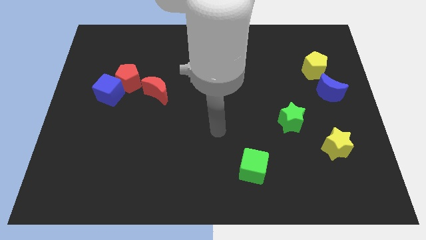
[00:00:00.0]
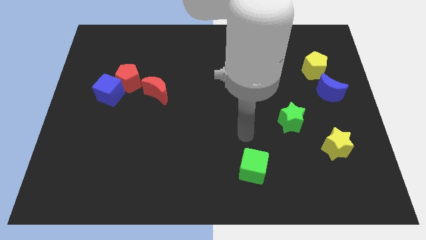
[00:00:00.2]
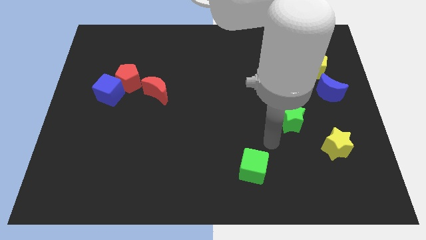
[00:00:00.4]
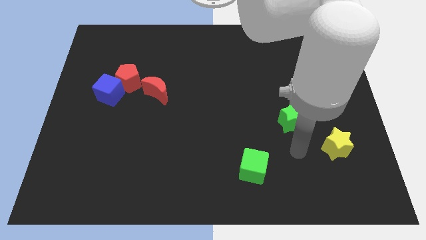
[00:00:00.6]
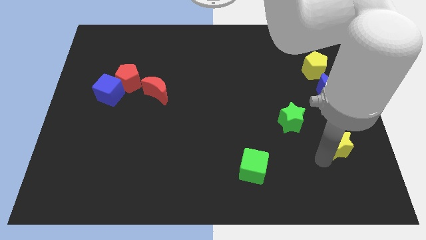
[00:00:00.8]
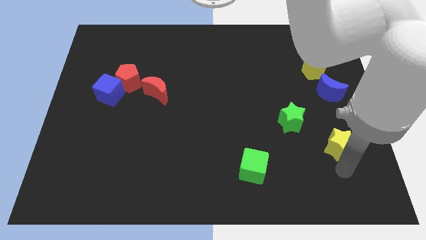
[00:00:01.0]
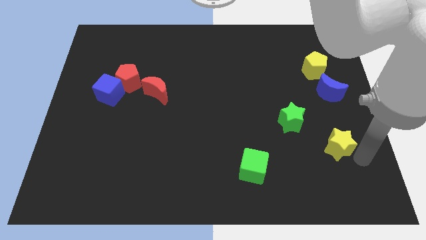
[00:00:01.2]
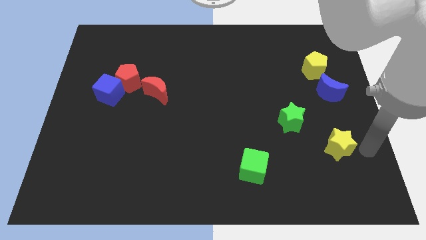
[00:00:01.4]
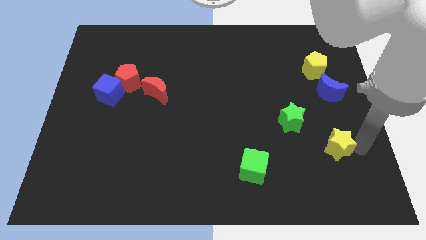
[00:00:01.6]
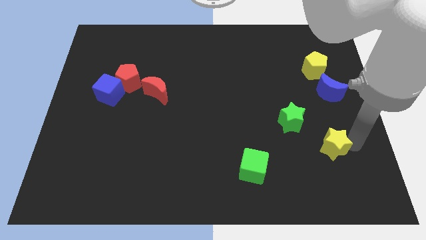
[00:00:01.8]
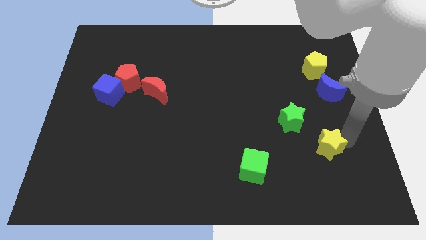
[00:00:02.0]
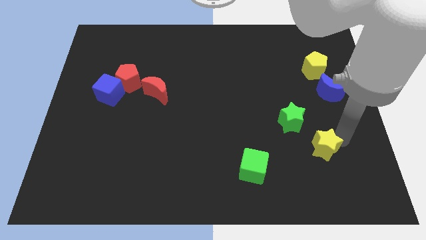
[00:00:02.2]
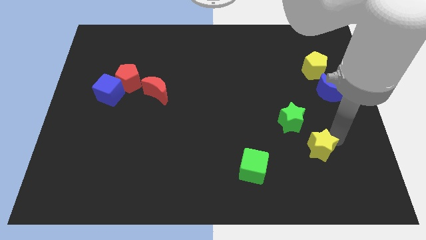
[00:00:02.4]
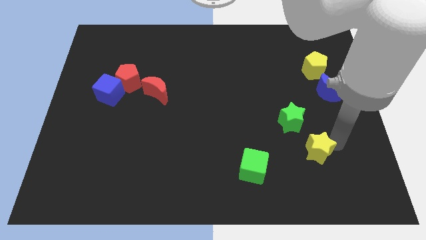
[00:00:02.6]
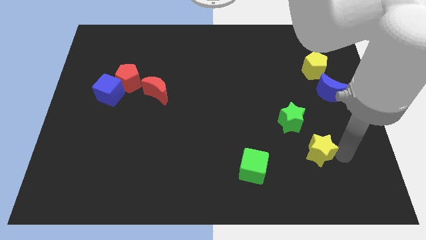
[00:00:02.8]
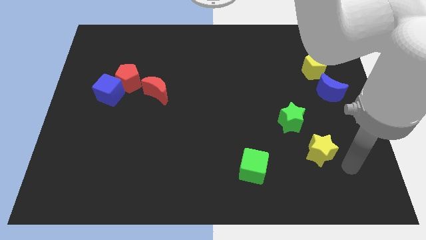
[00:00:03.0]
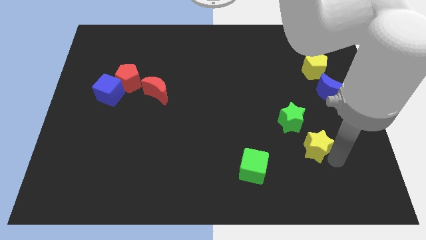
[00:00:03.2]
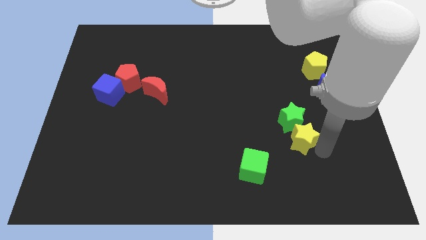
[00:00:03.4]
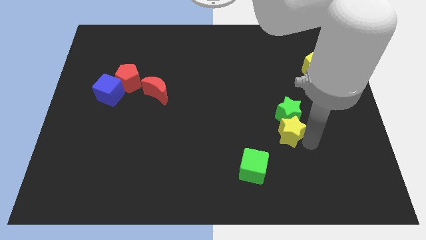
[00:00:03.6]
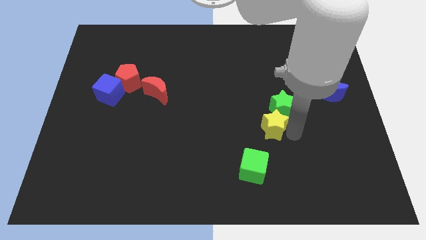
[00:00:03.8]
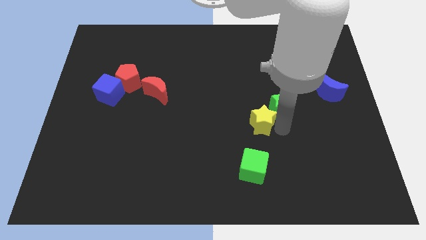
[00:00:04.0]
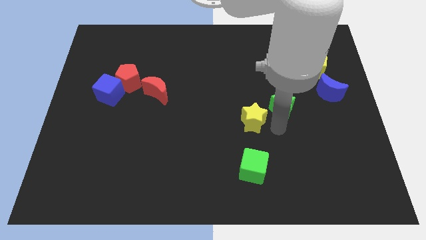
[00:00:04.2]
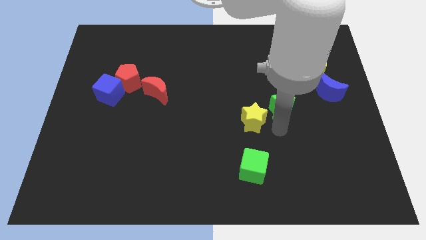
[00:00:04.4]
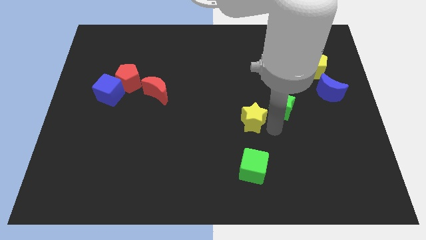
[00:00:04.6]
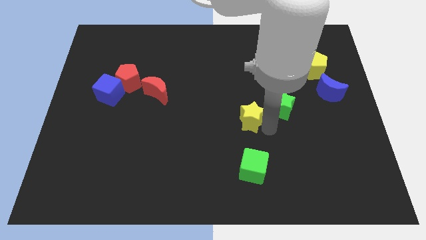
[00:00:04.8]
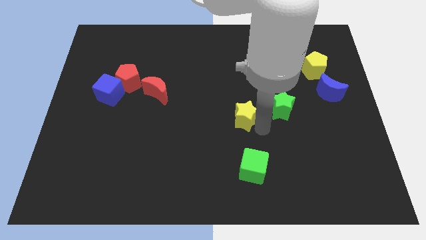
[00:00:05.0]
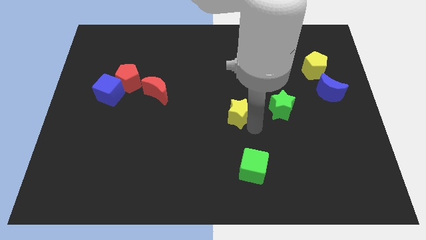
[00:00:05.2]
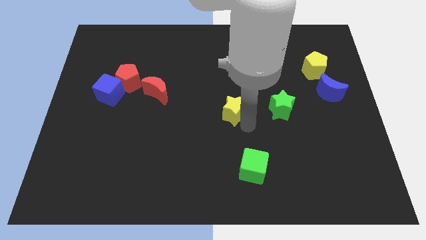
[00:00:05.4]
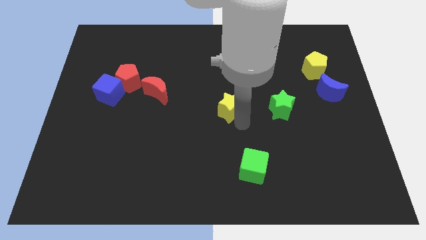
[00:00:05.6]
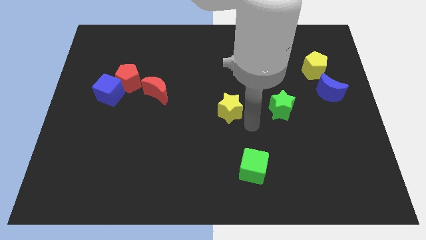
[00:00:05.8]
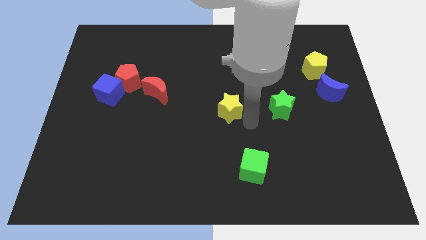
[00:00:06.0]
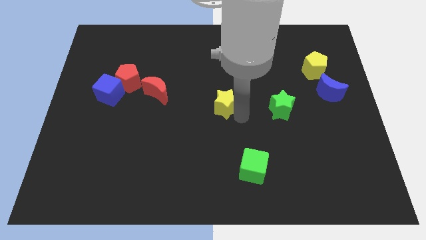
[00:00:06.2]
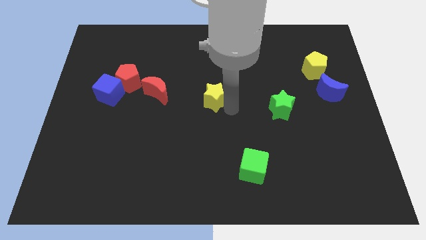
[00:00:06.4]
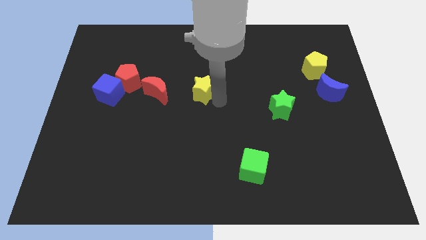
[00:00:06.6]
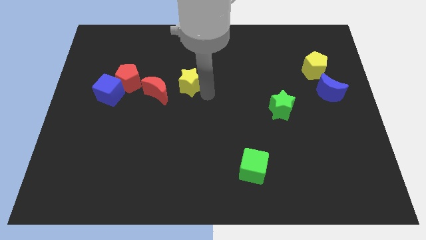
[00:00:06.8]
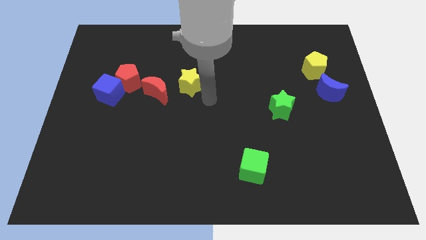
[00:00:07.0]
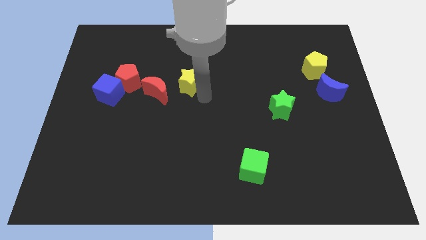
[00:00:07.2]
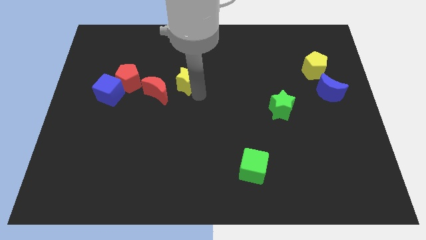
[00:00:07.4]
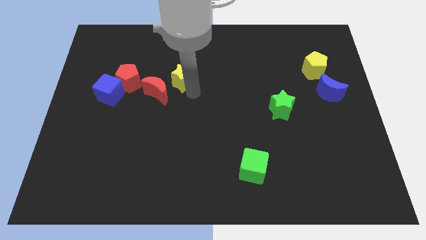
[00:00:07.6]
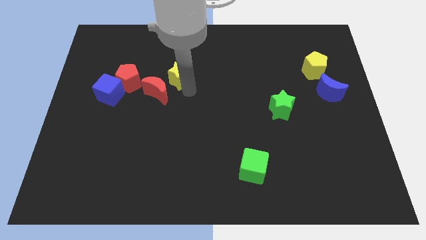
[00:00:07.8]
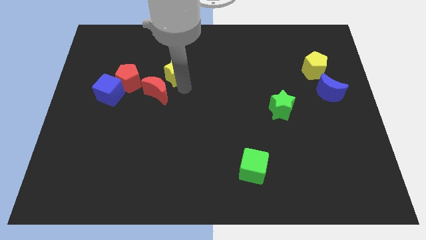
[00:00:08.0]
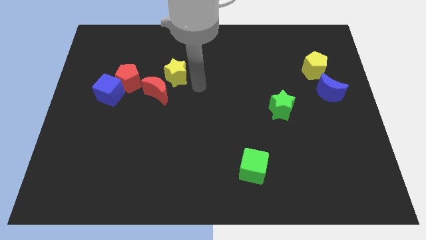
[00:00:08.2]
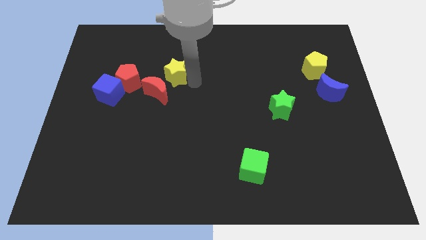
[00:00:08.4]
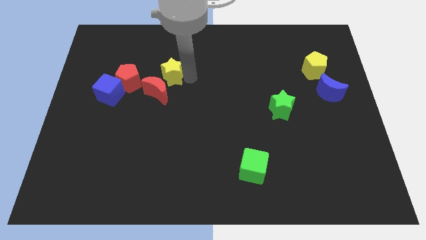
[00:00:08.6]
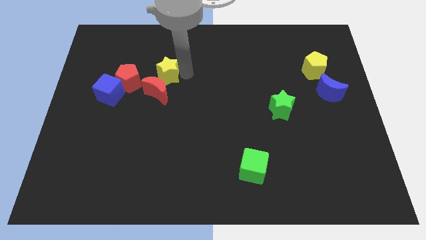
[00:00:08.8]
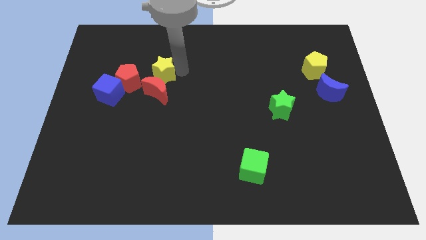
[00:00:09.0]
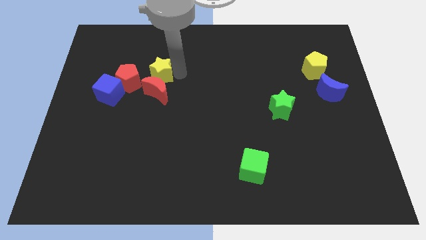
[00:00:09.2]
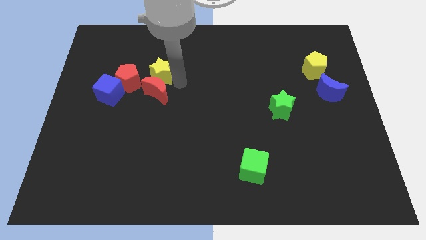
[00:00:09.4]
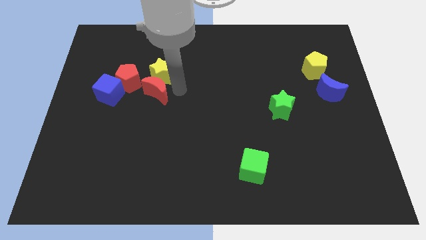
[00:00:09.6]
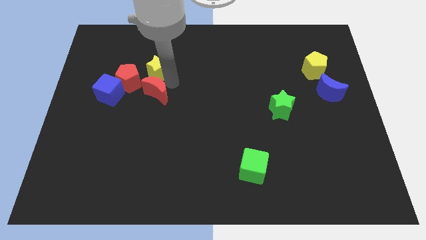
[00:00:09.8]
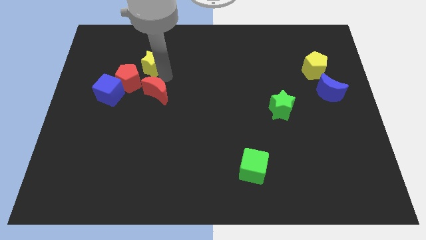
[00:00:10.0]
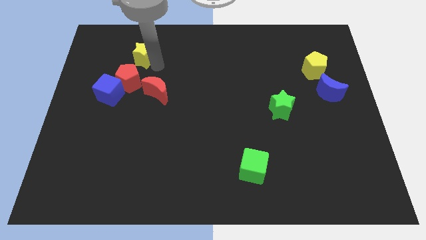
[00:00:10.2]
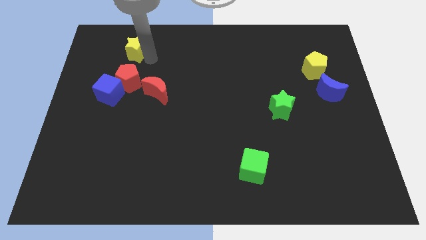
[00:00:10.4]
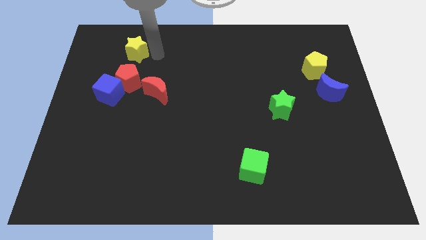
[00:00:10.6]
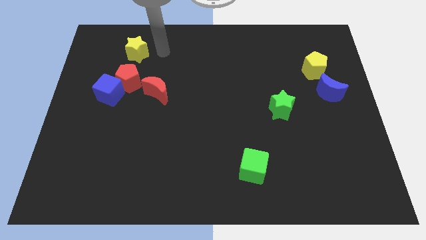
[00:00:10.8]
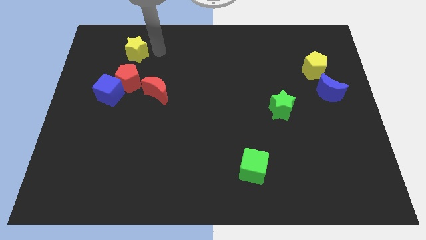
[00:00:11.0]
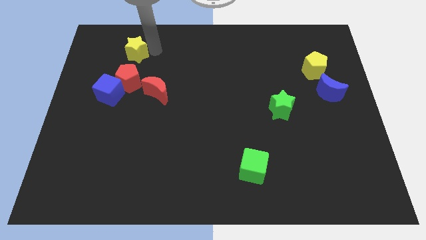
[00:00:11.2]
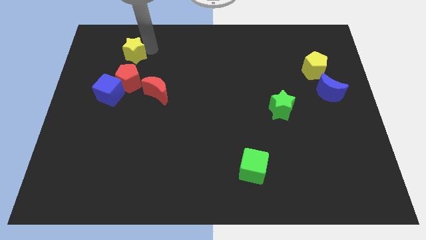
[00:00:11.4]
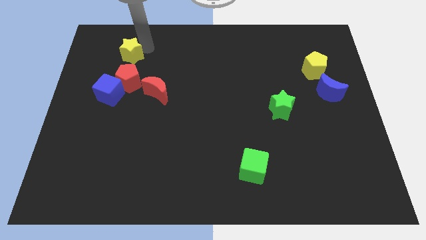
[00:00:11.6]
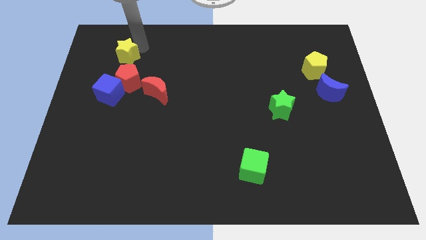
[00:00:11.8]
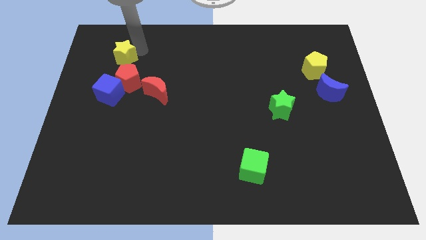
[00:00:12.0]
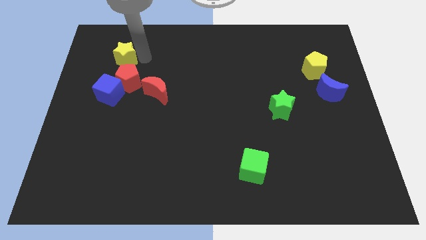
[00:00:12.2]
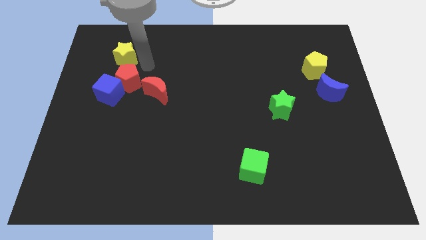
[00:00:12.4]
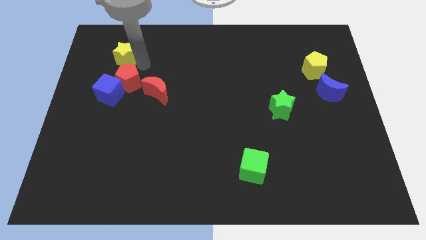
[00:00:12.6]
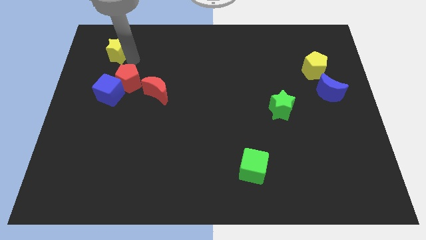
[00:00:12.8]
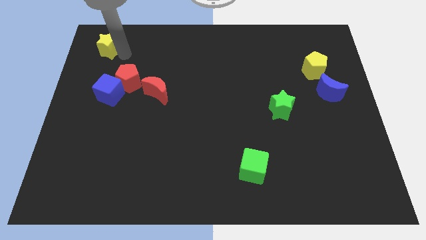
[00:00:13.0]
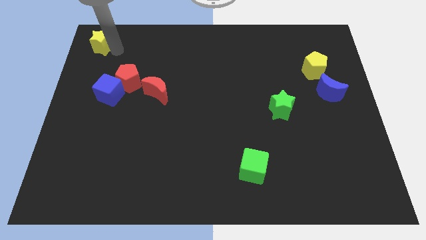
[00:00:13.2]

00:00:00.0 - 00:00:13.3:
slide the yellow star to the upper left corner

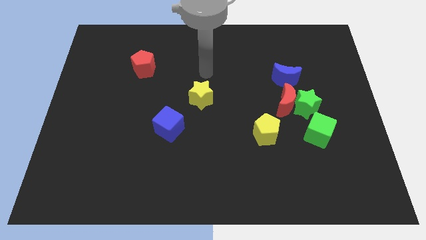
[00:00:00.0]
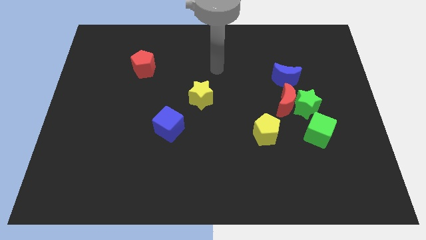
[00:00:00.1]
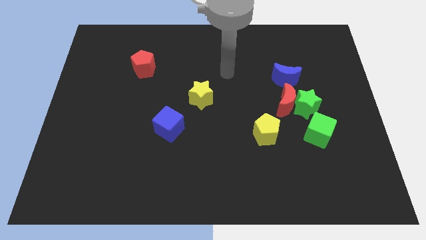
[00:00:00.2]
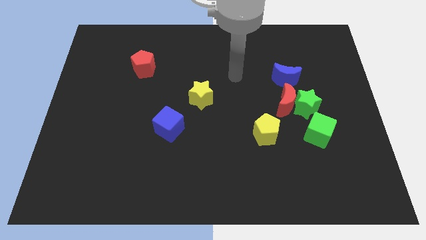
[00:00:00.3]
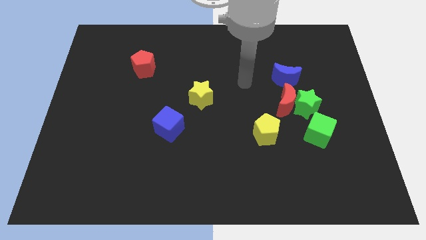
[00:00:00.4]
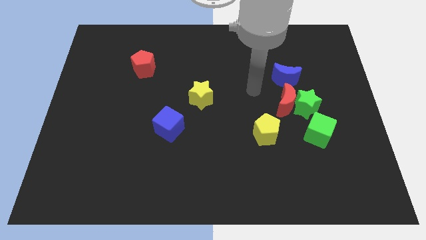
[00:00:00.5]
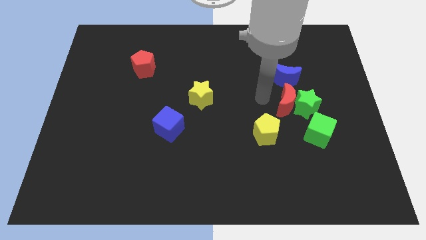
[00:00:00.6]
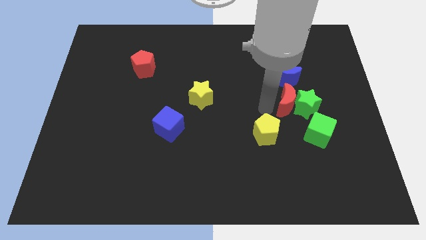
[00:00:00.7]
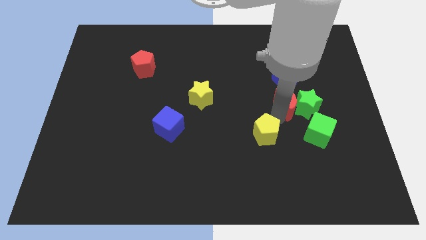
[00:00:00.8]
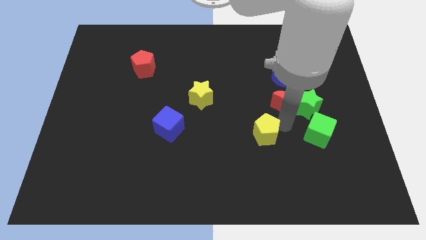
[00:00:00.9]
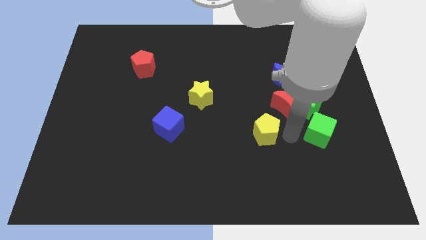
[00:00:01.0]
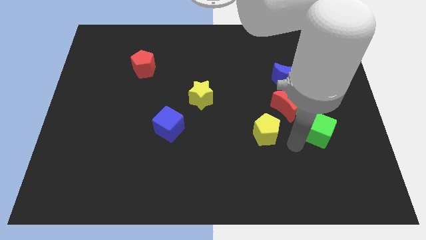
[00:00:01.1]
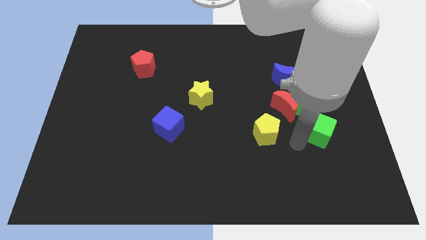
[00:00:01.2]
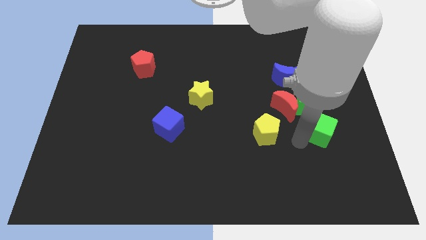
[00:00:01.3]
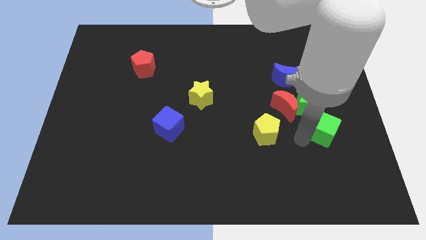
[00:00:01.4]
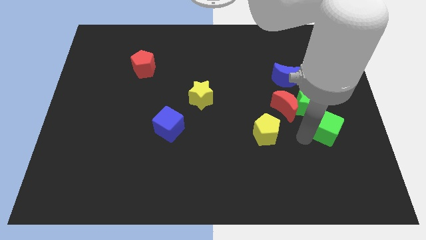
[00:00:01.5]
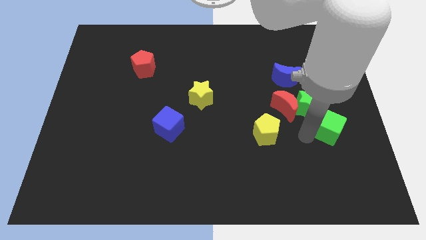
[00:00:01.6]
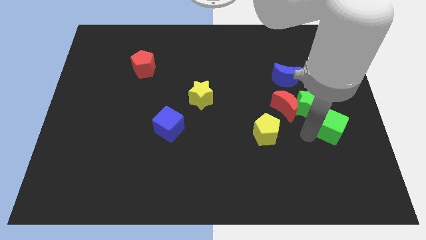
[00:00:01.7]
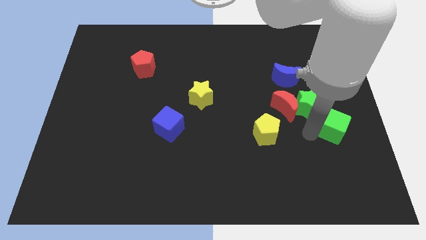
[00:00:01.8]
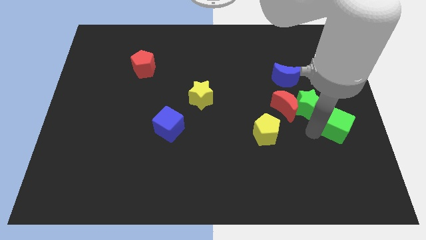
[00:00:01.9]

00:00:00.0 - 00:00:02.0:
push the green cube to the center right
